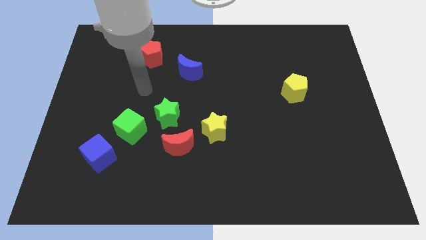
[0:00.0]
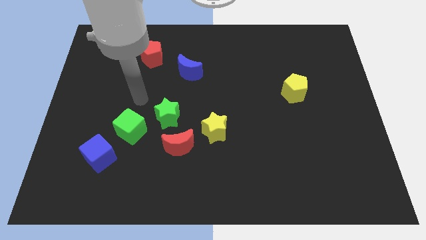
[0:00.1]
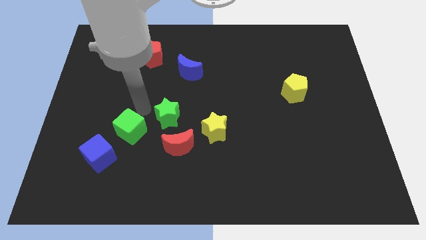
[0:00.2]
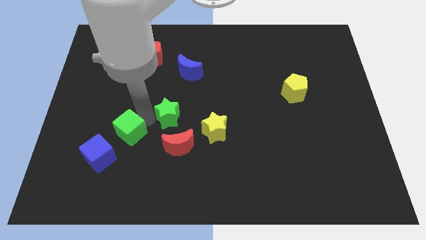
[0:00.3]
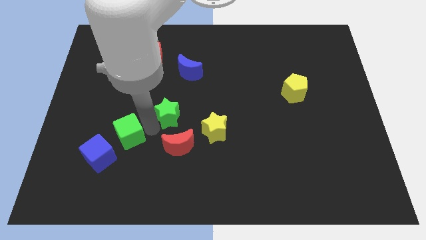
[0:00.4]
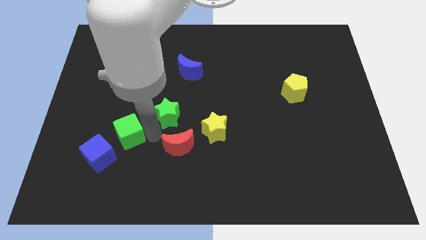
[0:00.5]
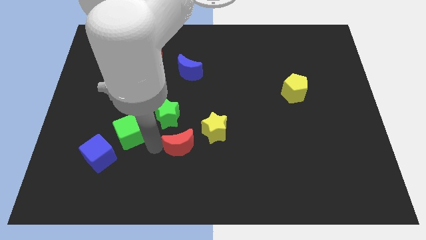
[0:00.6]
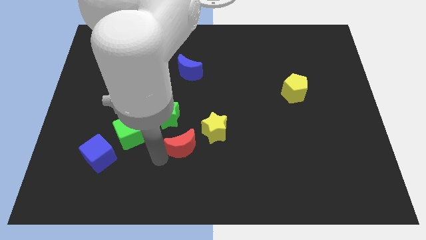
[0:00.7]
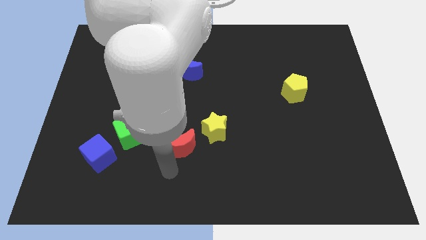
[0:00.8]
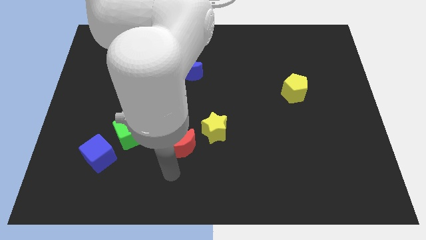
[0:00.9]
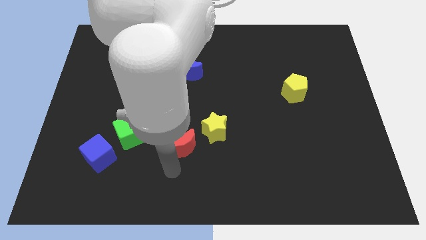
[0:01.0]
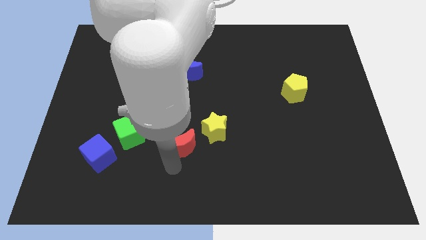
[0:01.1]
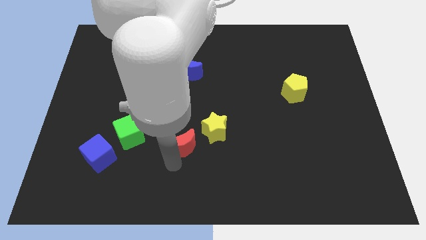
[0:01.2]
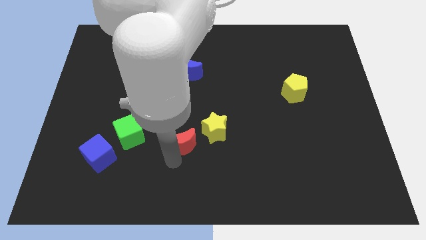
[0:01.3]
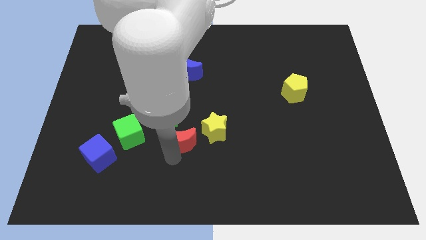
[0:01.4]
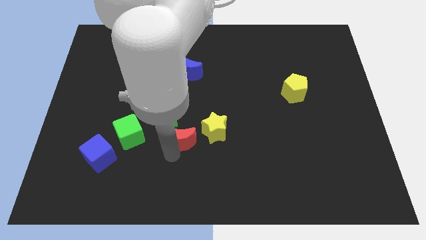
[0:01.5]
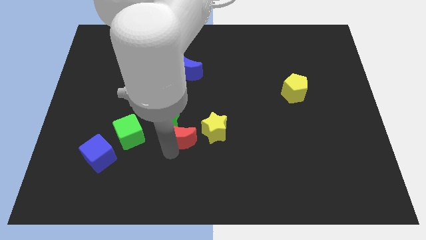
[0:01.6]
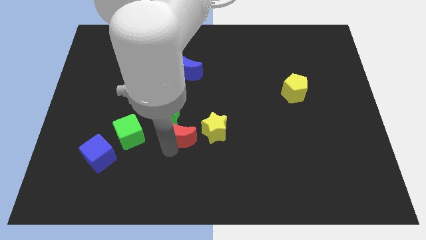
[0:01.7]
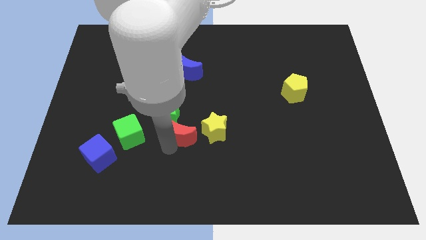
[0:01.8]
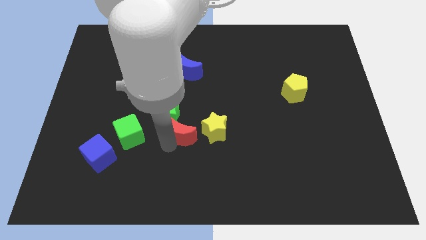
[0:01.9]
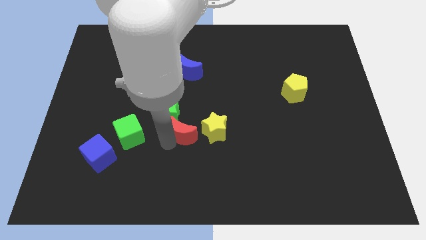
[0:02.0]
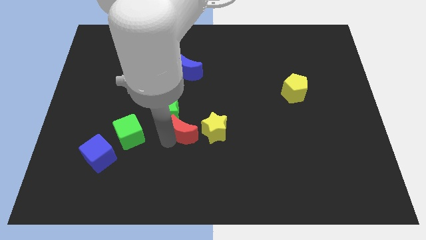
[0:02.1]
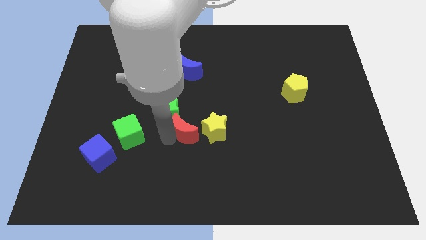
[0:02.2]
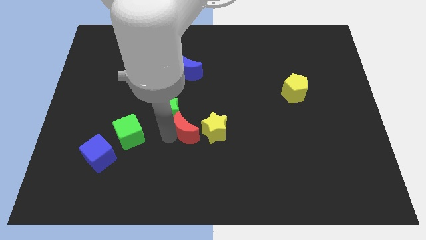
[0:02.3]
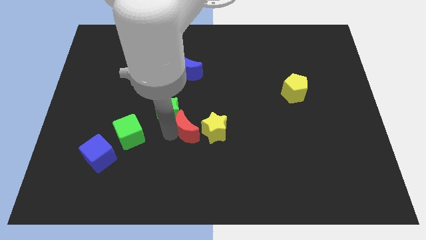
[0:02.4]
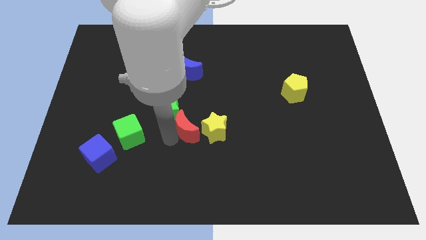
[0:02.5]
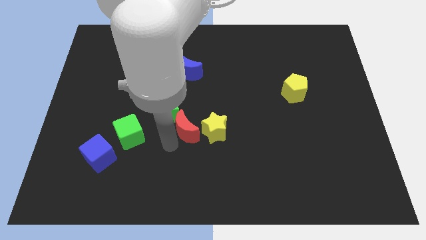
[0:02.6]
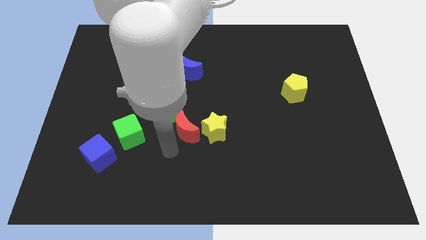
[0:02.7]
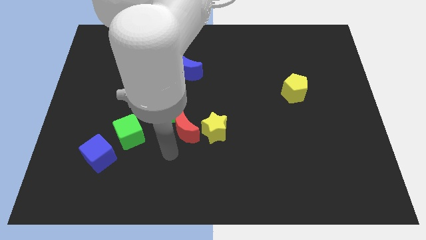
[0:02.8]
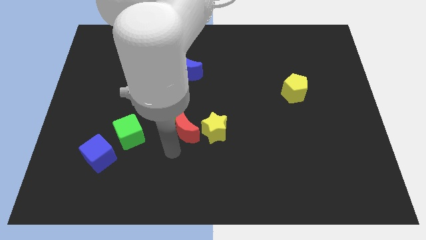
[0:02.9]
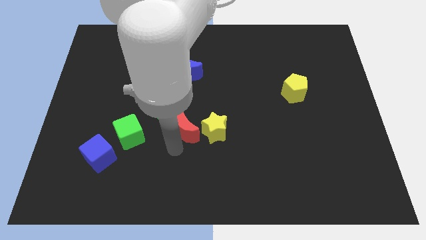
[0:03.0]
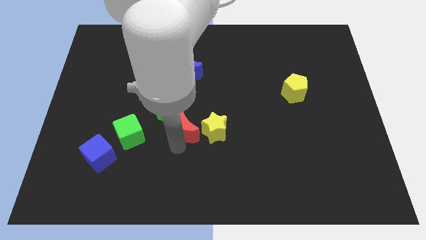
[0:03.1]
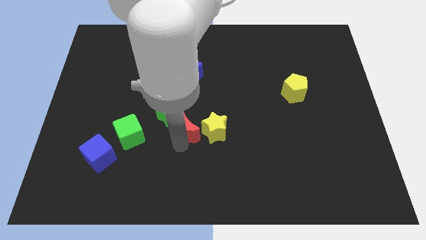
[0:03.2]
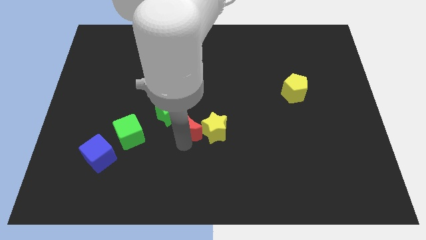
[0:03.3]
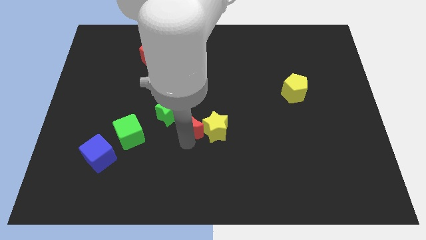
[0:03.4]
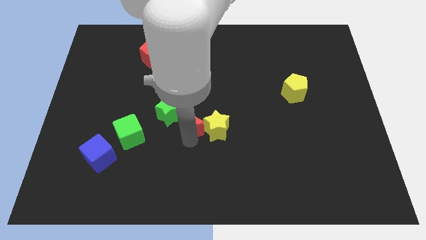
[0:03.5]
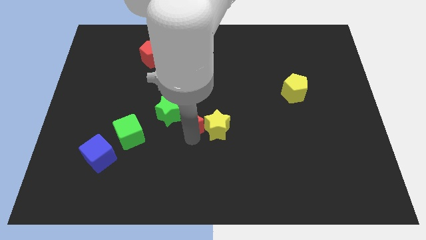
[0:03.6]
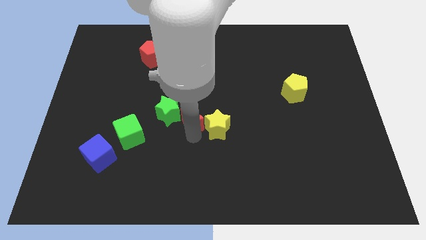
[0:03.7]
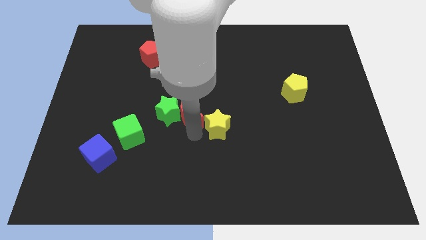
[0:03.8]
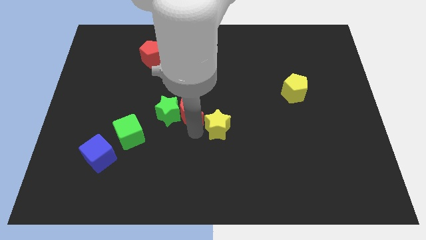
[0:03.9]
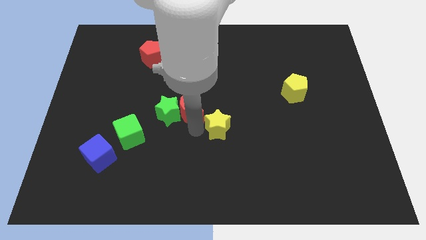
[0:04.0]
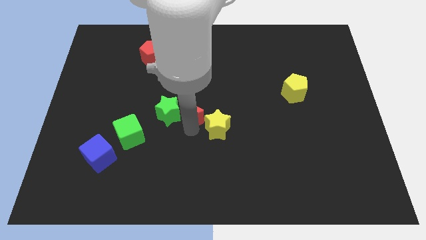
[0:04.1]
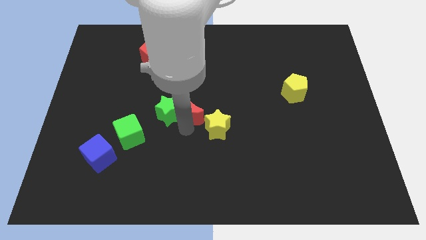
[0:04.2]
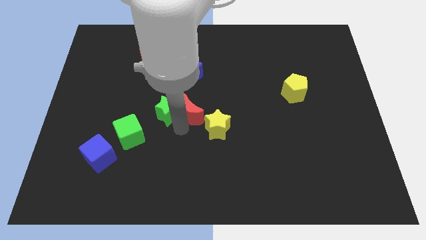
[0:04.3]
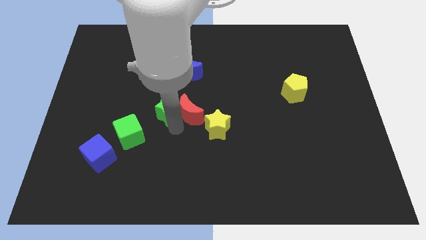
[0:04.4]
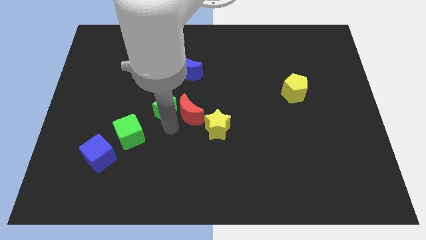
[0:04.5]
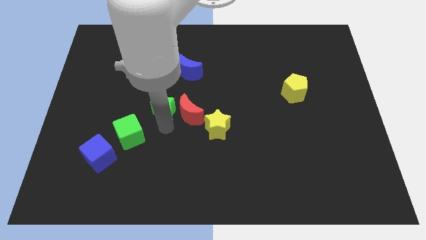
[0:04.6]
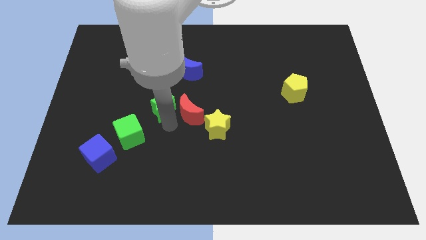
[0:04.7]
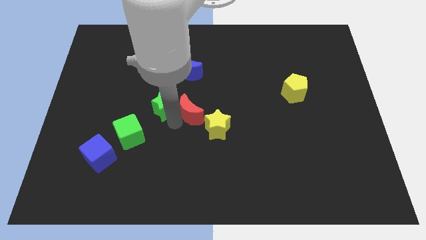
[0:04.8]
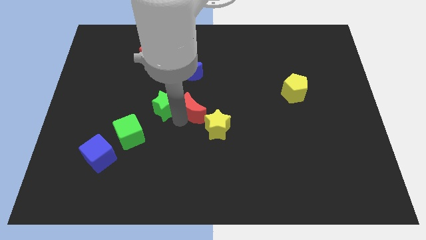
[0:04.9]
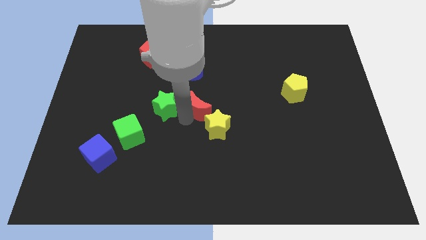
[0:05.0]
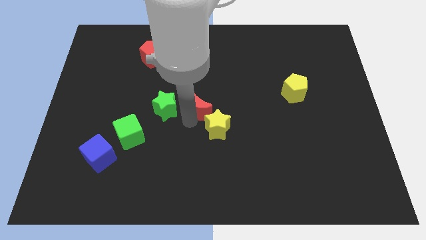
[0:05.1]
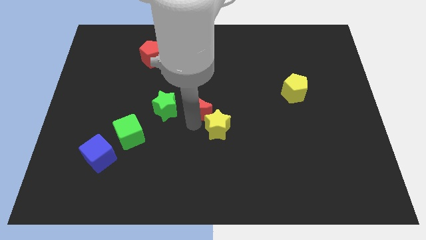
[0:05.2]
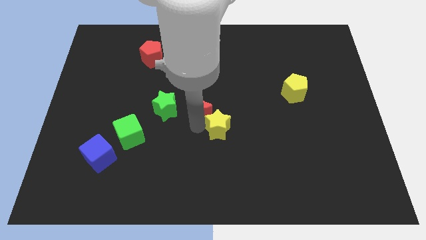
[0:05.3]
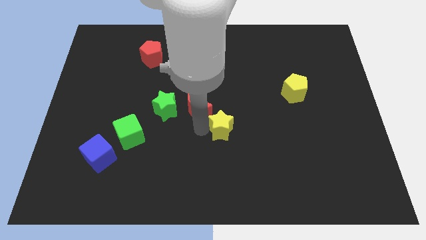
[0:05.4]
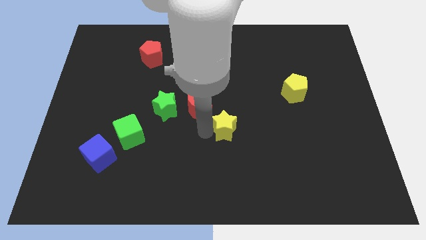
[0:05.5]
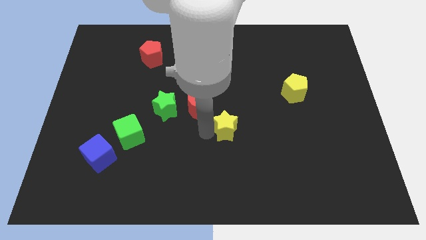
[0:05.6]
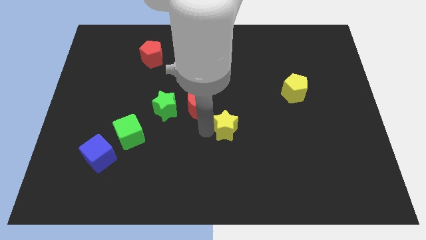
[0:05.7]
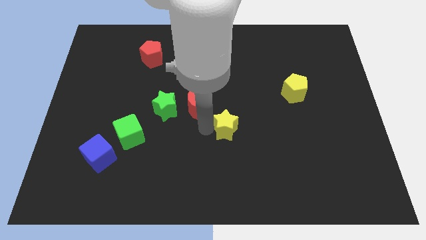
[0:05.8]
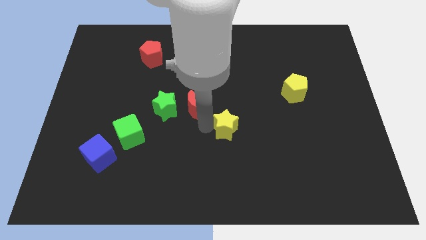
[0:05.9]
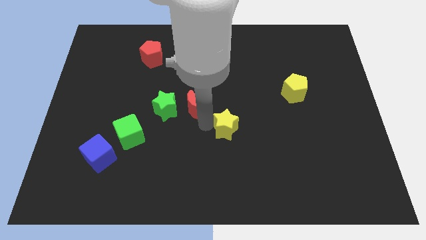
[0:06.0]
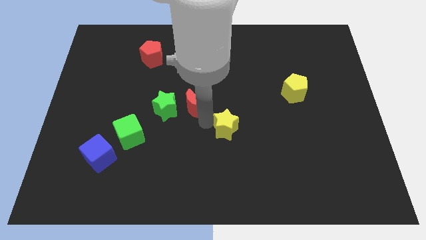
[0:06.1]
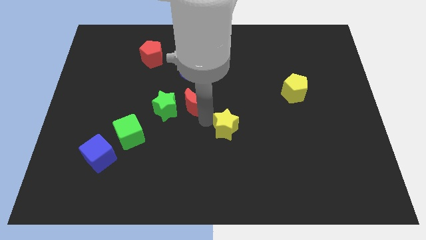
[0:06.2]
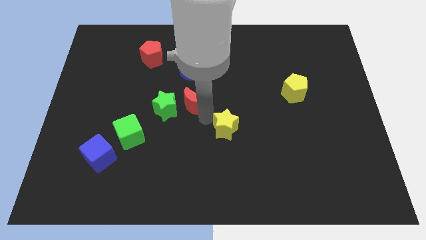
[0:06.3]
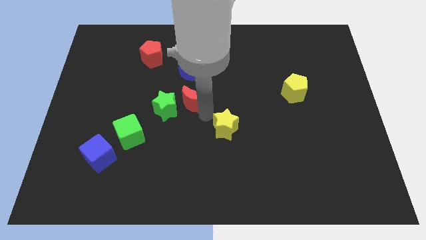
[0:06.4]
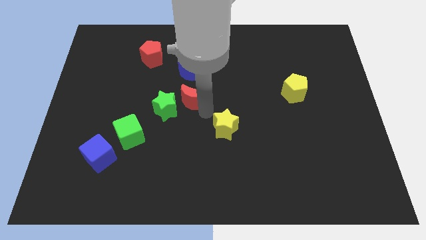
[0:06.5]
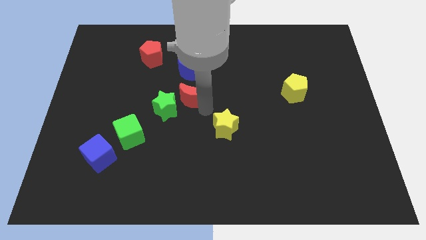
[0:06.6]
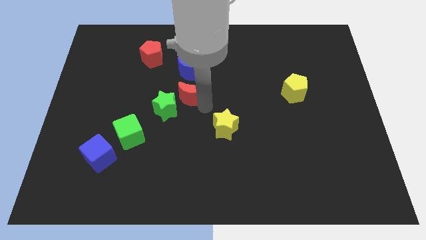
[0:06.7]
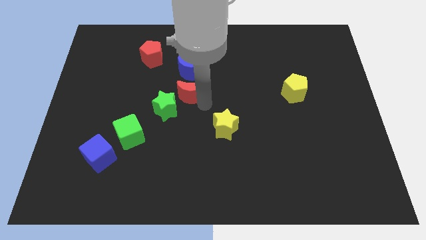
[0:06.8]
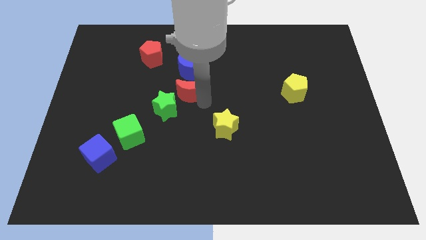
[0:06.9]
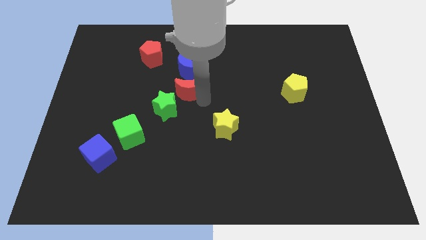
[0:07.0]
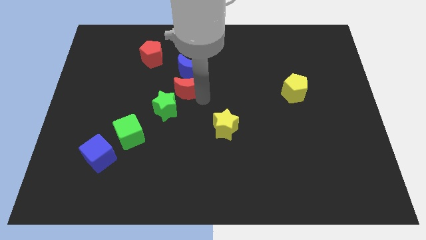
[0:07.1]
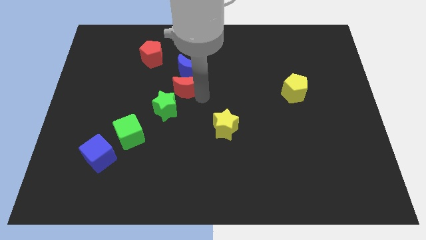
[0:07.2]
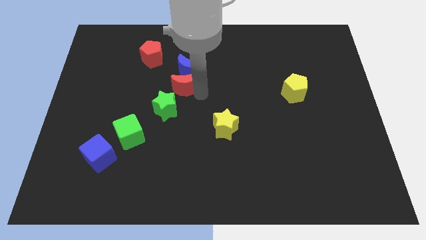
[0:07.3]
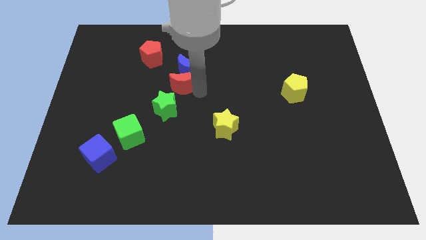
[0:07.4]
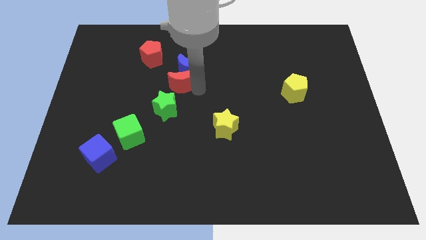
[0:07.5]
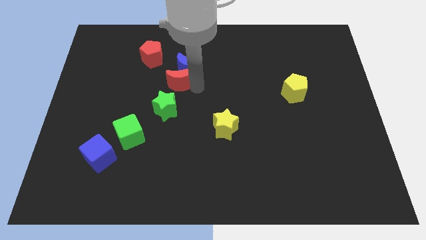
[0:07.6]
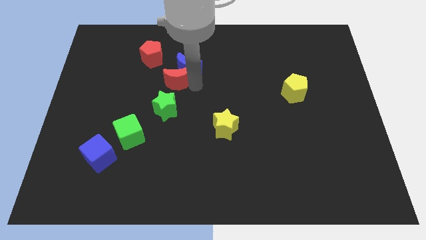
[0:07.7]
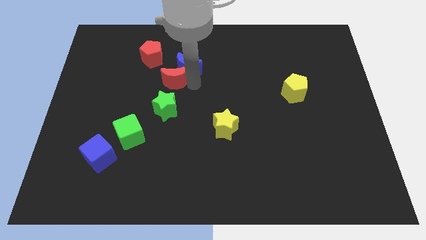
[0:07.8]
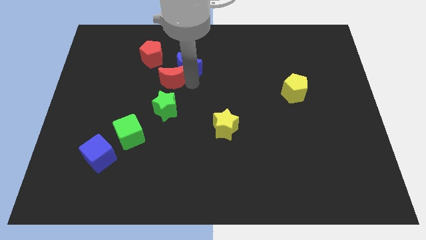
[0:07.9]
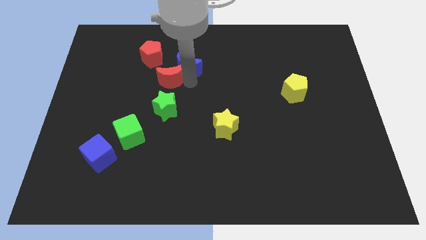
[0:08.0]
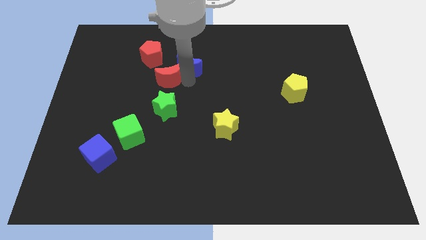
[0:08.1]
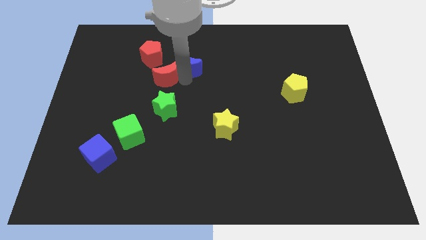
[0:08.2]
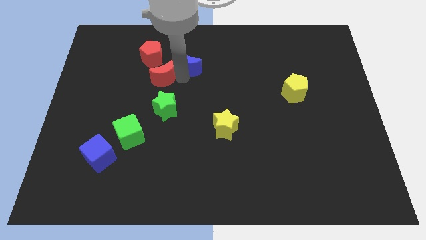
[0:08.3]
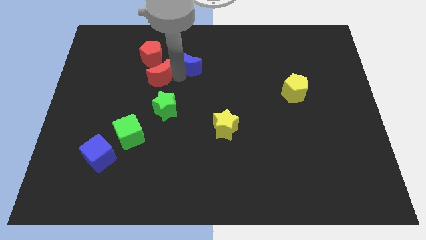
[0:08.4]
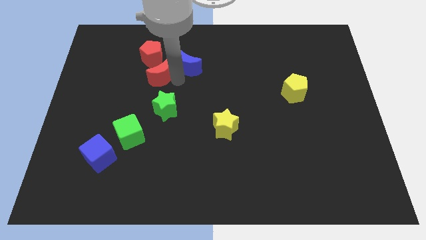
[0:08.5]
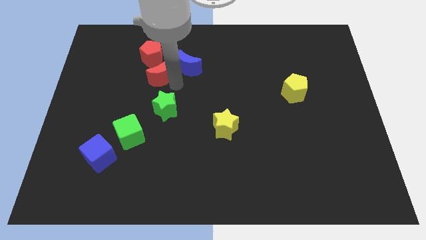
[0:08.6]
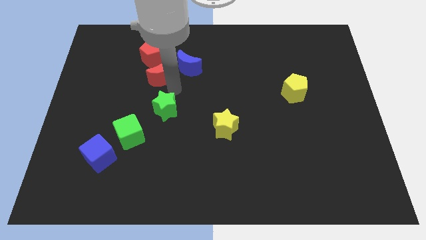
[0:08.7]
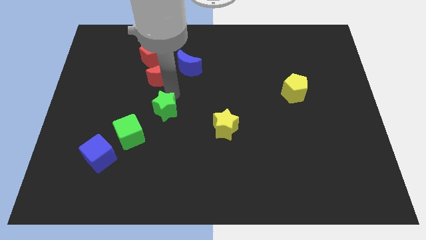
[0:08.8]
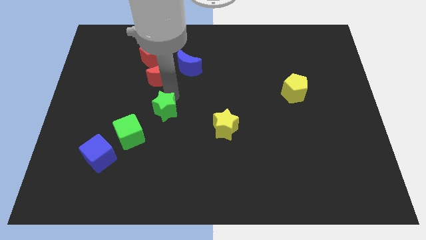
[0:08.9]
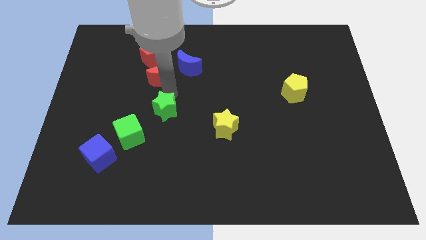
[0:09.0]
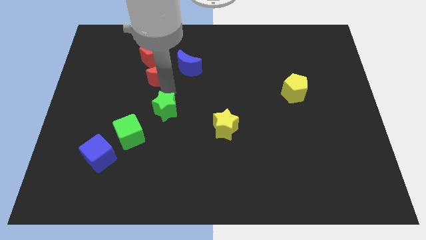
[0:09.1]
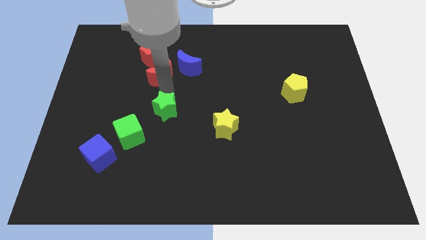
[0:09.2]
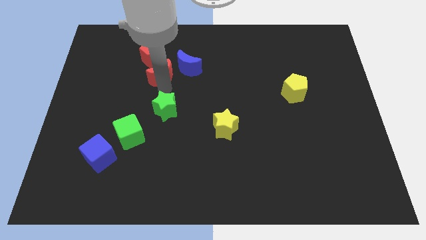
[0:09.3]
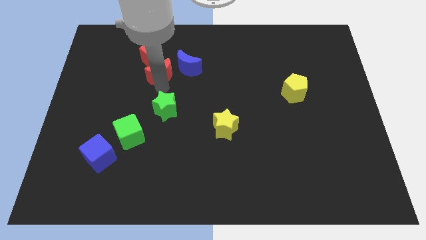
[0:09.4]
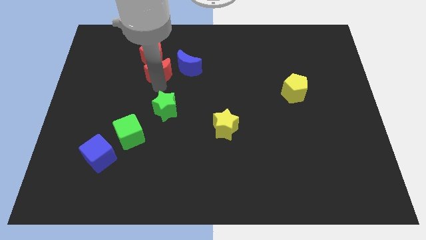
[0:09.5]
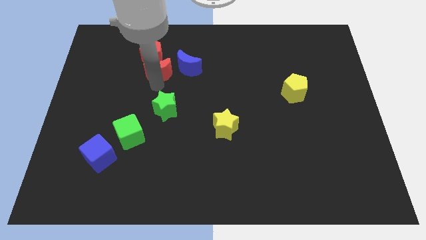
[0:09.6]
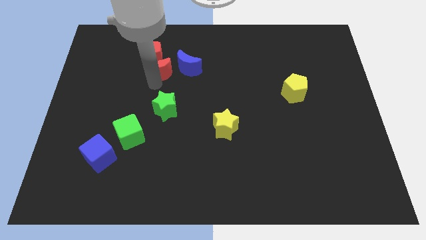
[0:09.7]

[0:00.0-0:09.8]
push the red moon to the red pentagon
